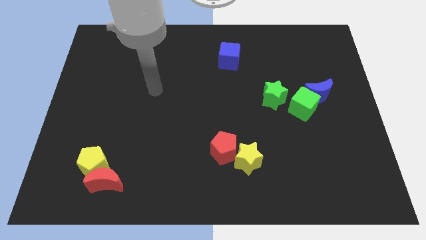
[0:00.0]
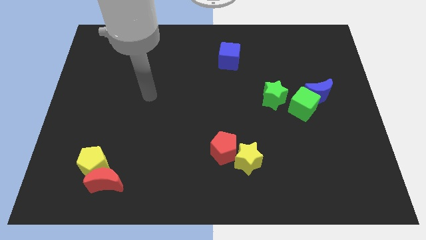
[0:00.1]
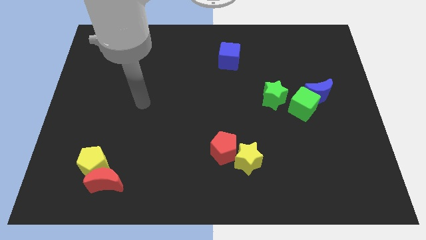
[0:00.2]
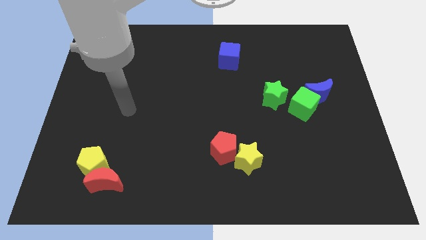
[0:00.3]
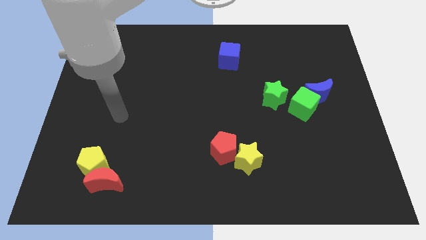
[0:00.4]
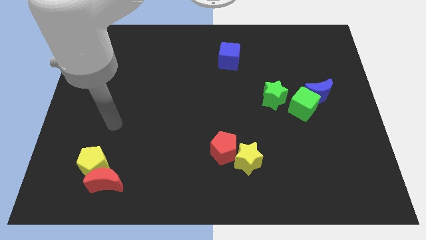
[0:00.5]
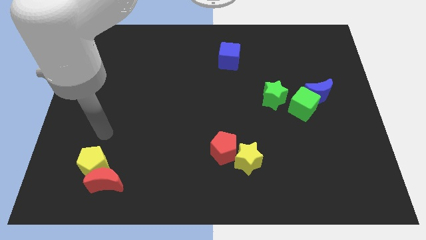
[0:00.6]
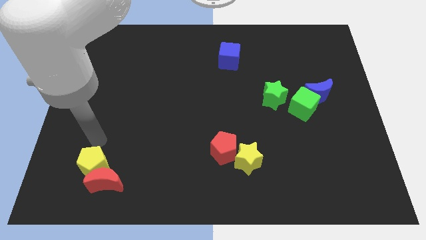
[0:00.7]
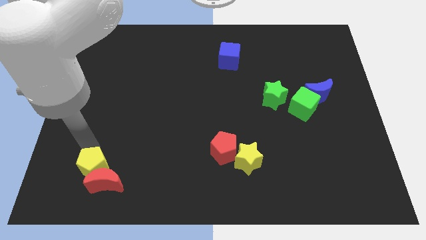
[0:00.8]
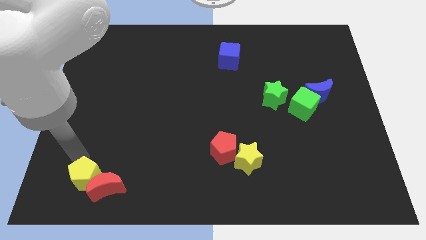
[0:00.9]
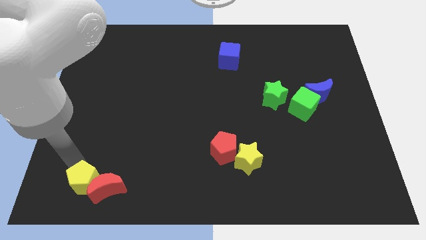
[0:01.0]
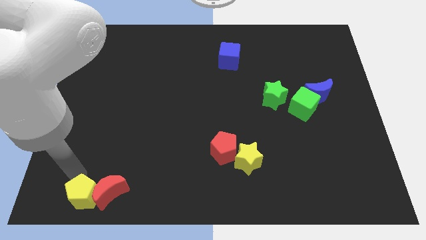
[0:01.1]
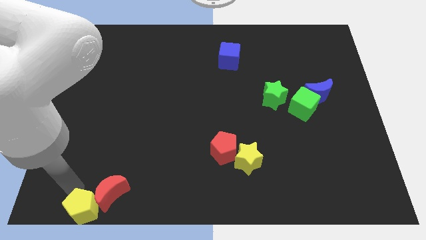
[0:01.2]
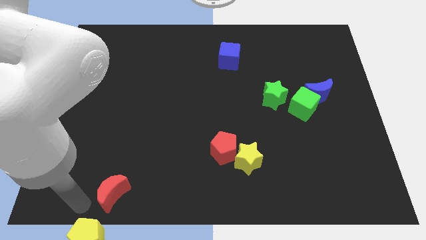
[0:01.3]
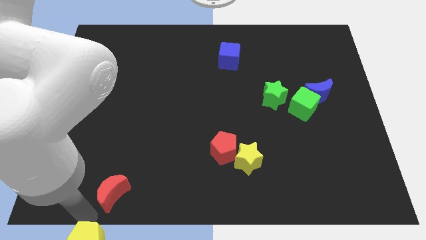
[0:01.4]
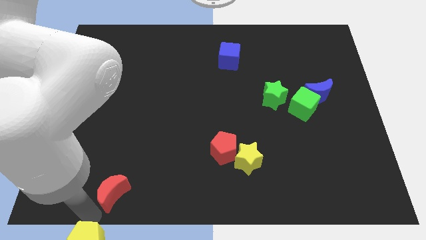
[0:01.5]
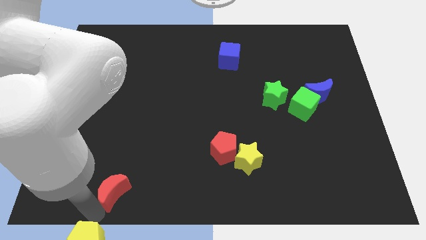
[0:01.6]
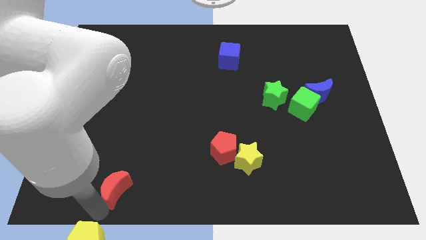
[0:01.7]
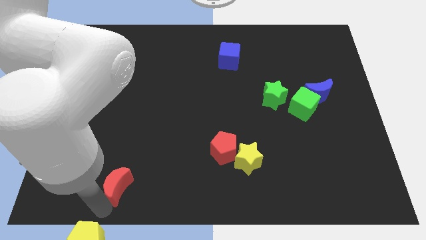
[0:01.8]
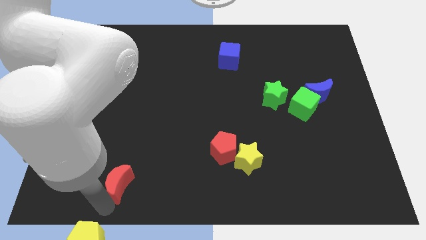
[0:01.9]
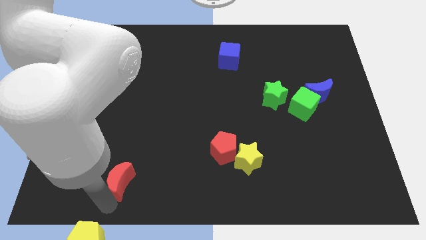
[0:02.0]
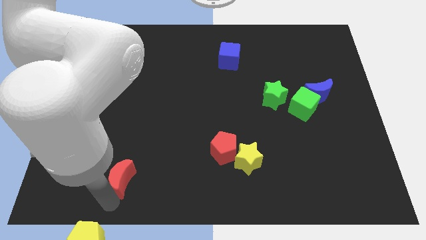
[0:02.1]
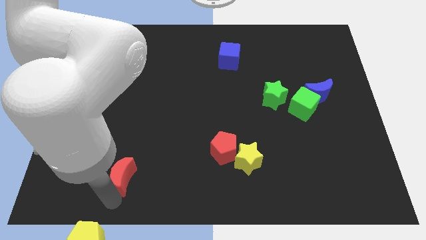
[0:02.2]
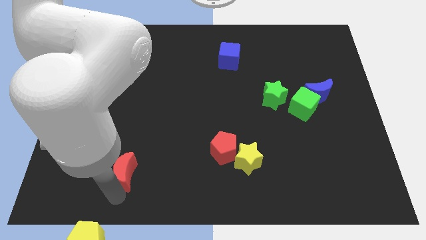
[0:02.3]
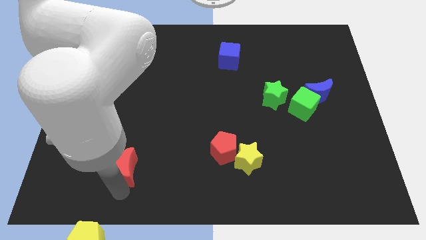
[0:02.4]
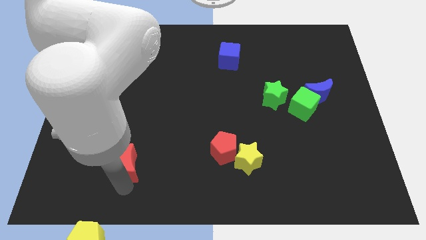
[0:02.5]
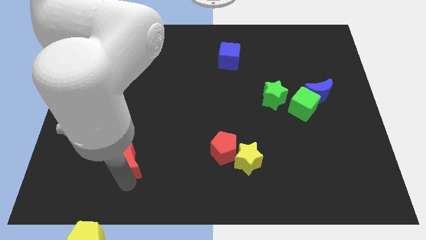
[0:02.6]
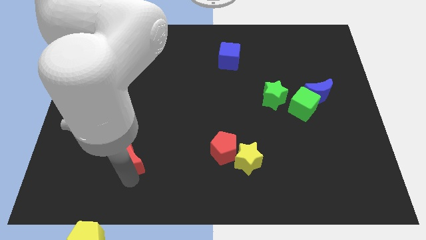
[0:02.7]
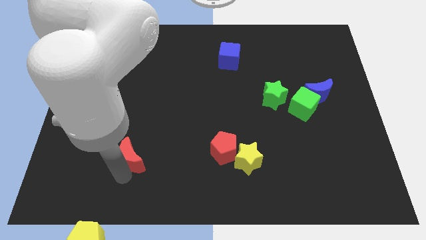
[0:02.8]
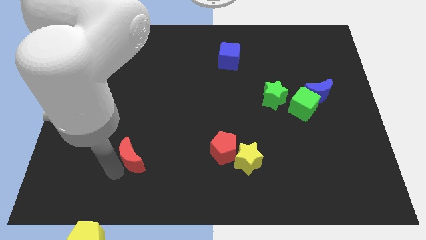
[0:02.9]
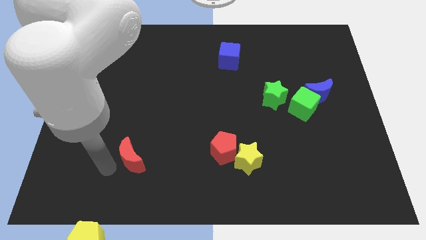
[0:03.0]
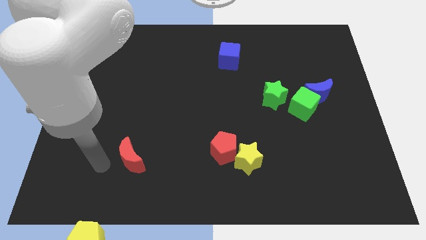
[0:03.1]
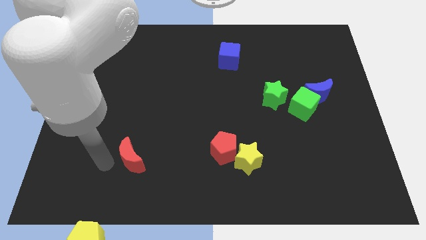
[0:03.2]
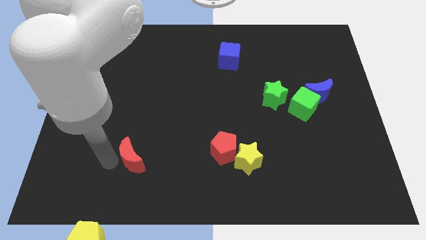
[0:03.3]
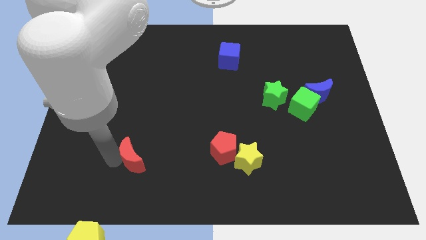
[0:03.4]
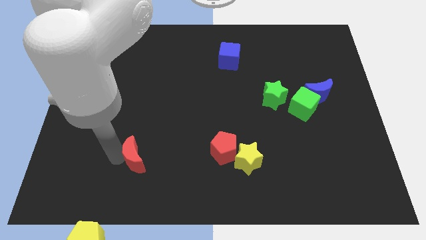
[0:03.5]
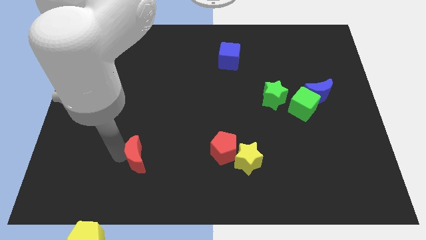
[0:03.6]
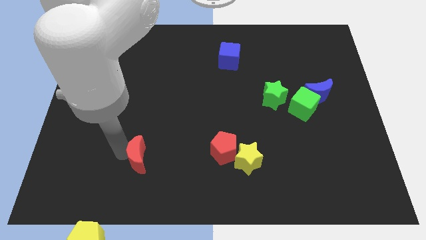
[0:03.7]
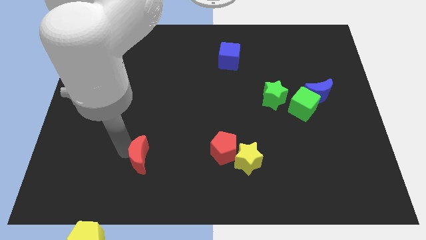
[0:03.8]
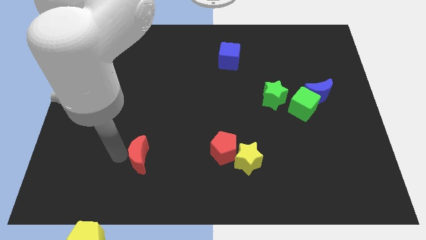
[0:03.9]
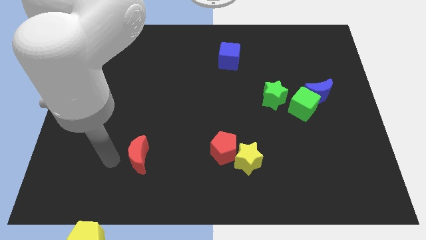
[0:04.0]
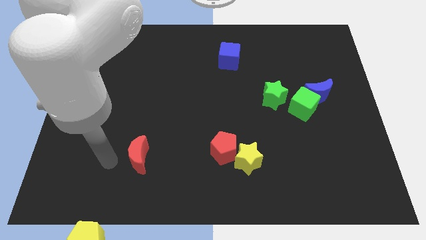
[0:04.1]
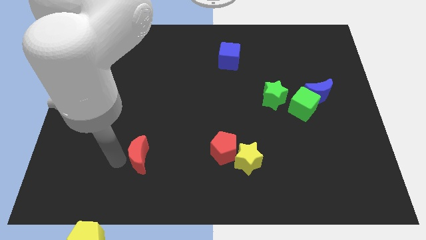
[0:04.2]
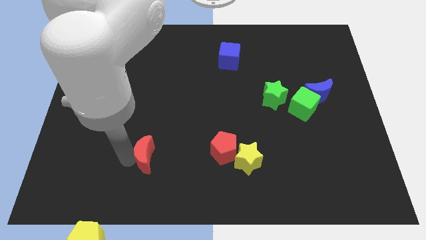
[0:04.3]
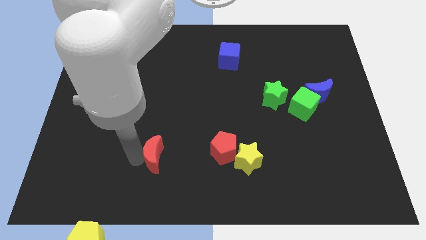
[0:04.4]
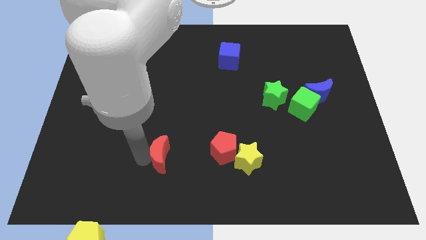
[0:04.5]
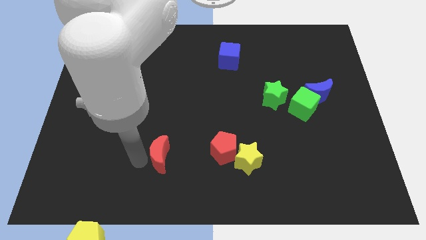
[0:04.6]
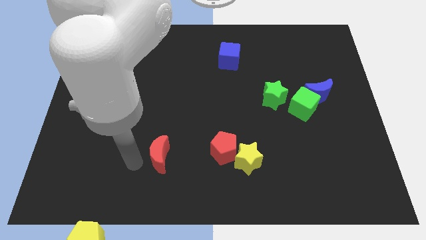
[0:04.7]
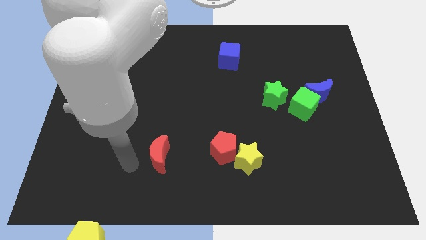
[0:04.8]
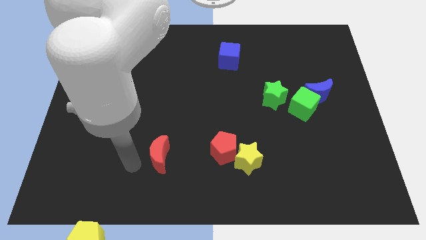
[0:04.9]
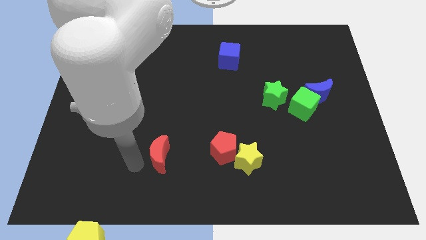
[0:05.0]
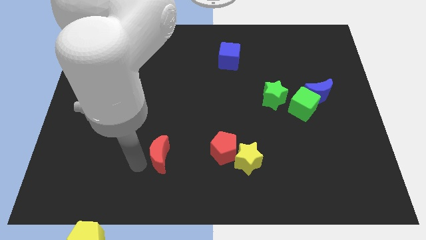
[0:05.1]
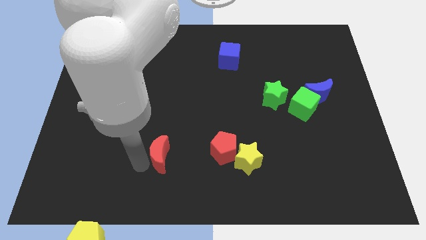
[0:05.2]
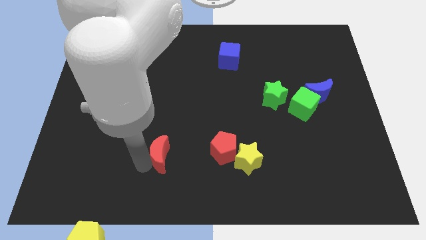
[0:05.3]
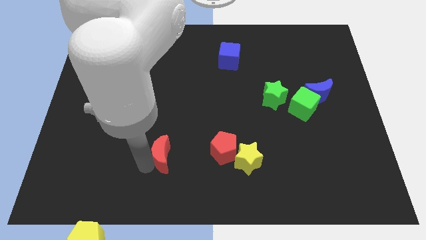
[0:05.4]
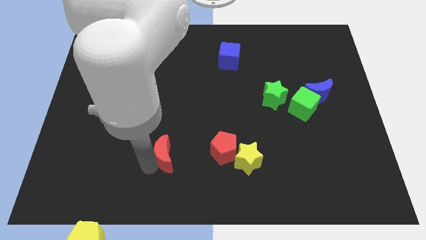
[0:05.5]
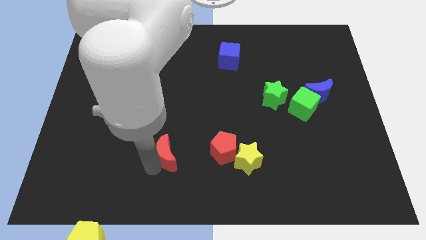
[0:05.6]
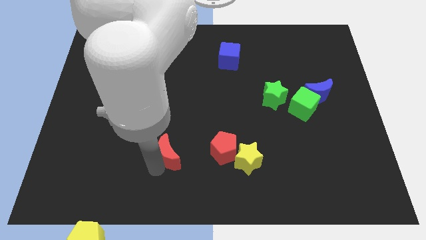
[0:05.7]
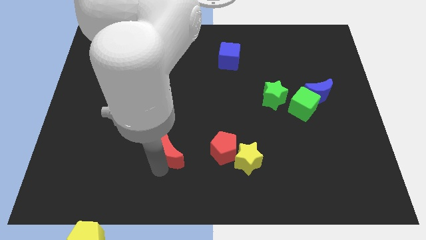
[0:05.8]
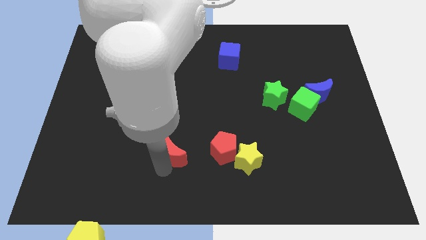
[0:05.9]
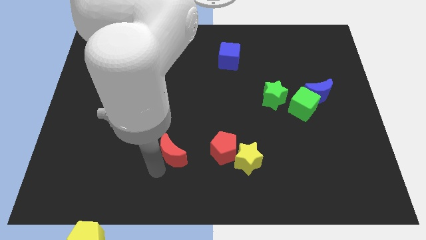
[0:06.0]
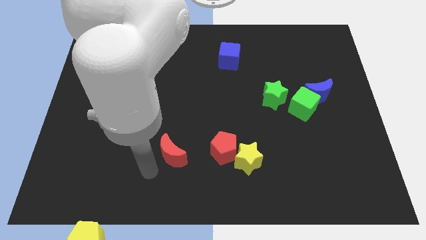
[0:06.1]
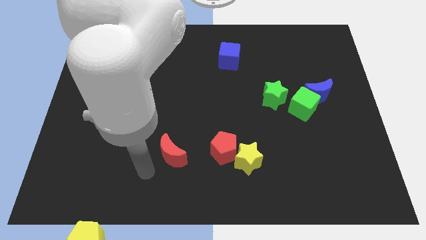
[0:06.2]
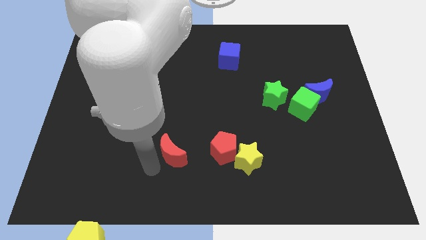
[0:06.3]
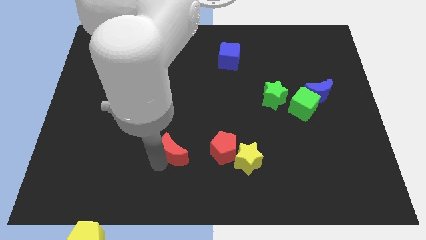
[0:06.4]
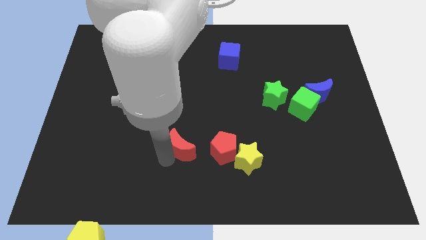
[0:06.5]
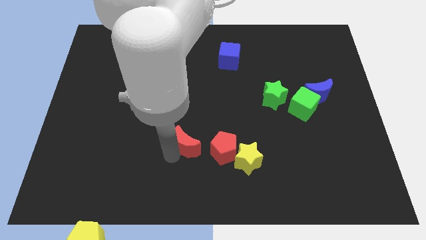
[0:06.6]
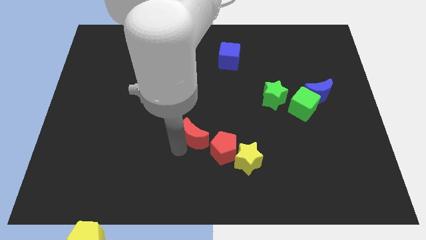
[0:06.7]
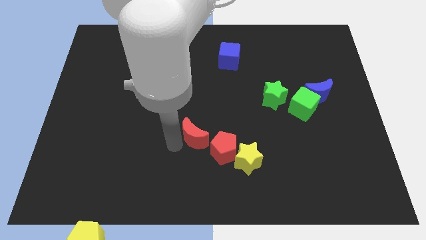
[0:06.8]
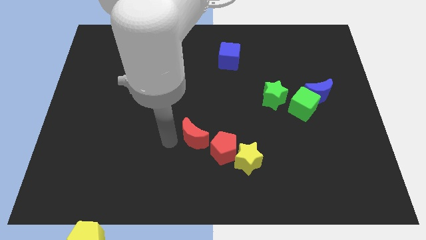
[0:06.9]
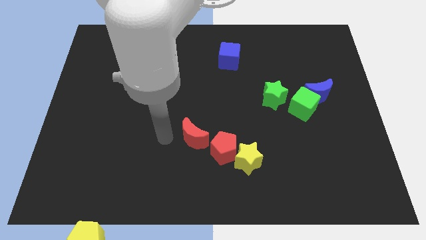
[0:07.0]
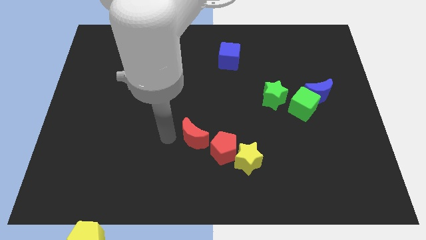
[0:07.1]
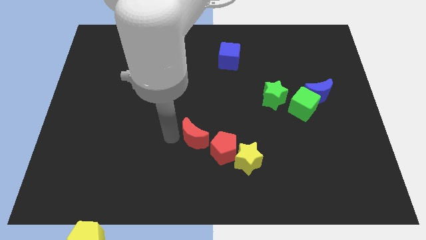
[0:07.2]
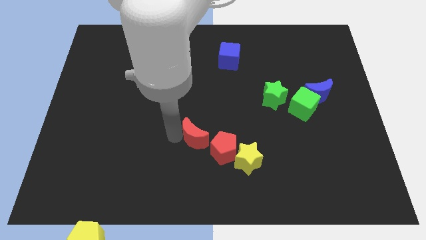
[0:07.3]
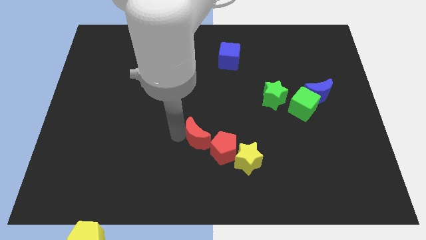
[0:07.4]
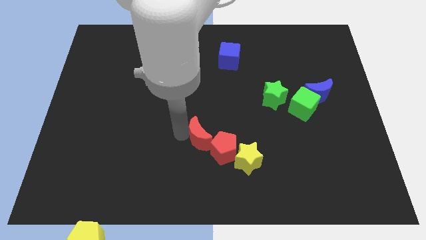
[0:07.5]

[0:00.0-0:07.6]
slide the red moon to the top left side of the yellow star
